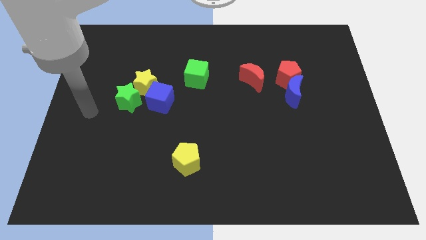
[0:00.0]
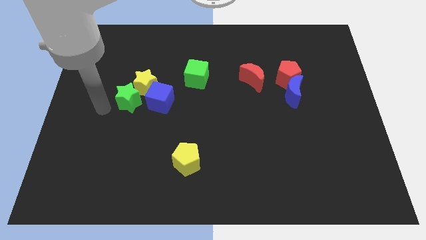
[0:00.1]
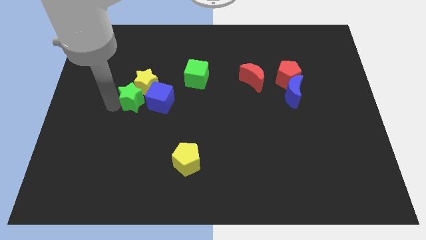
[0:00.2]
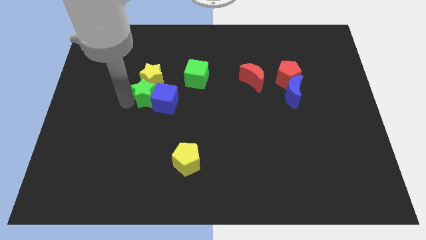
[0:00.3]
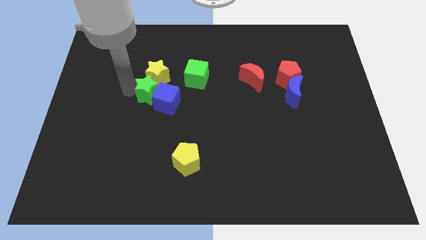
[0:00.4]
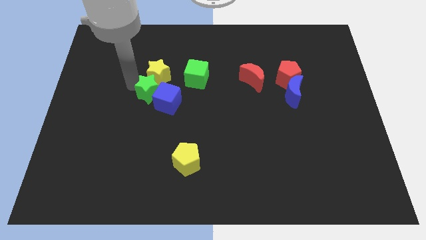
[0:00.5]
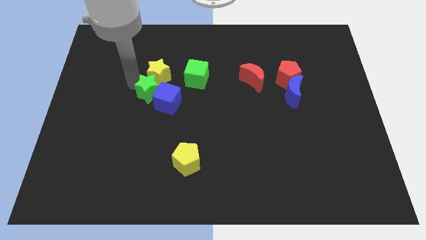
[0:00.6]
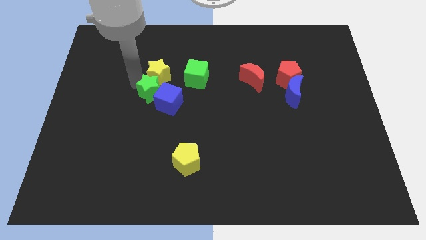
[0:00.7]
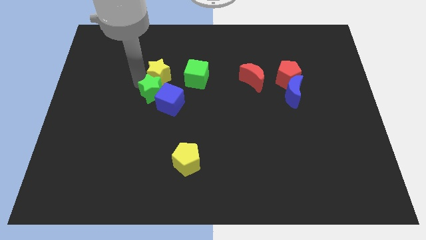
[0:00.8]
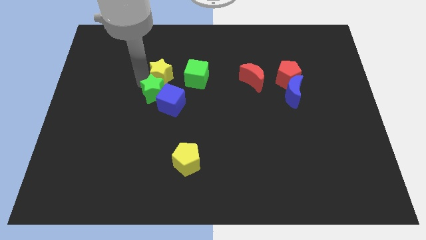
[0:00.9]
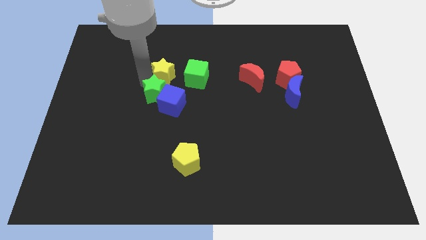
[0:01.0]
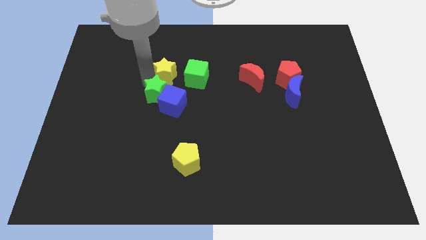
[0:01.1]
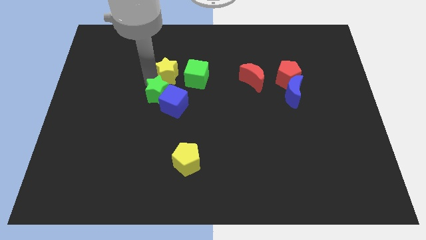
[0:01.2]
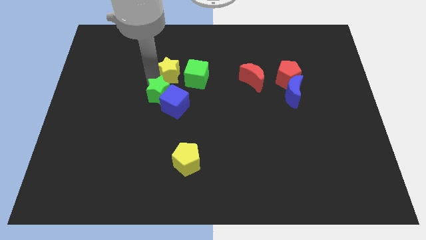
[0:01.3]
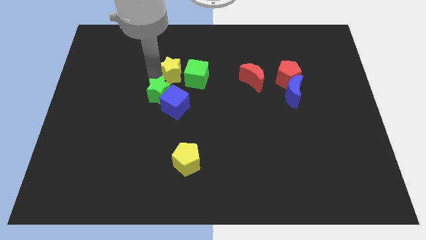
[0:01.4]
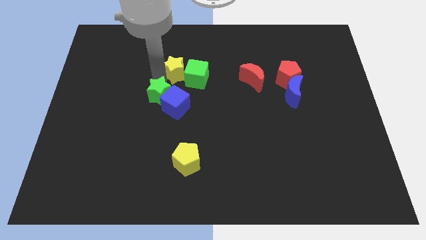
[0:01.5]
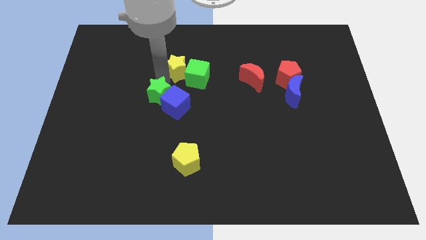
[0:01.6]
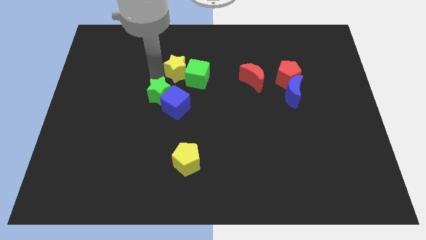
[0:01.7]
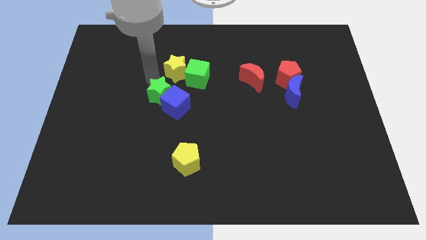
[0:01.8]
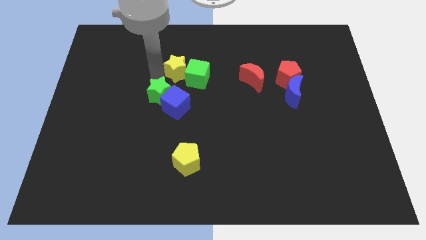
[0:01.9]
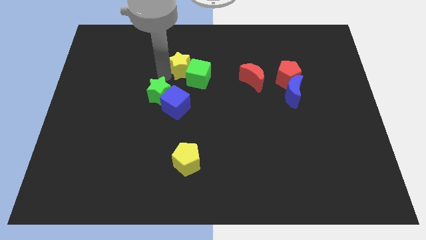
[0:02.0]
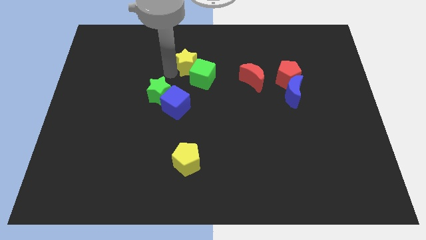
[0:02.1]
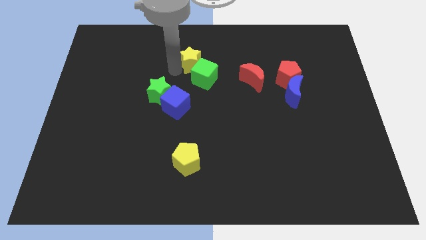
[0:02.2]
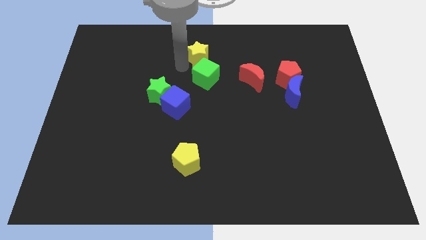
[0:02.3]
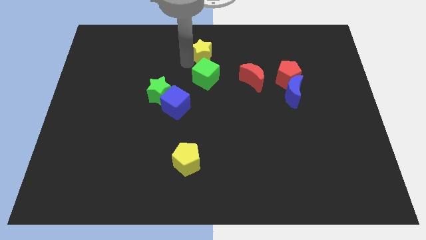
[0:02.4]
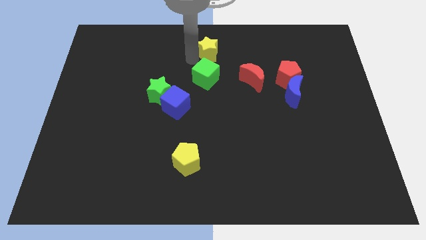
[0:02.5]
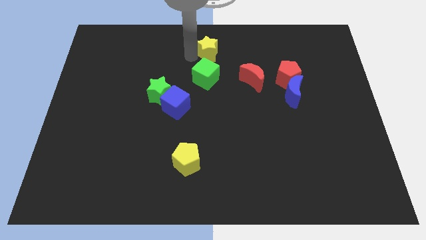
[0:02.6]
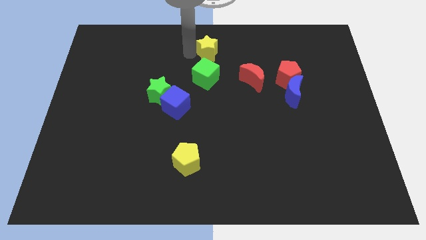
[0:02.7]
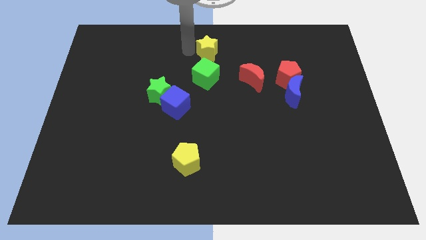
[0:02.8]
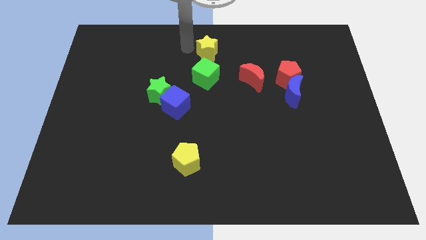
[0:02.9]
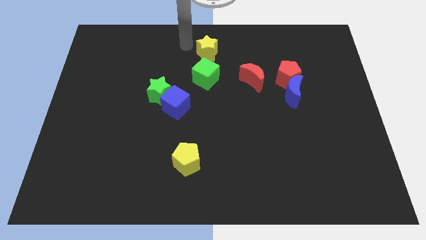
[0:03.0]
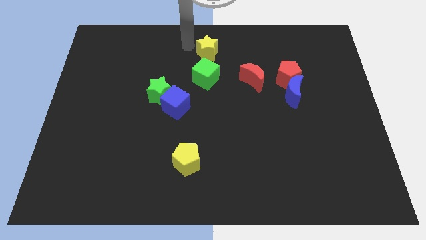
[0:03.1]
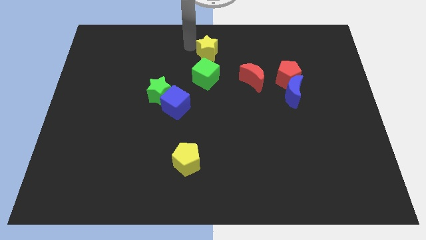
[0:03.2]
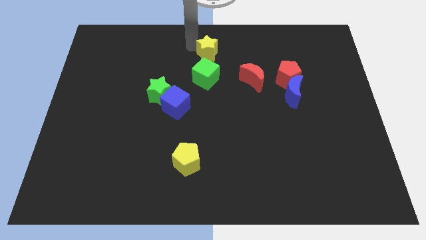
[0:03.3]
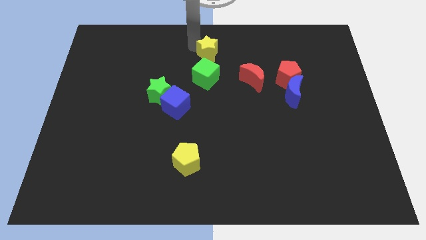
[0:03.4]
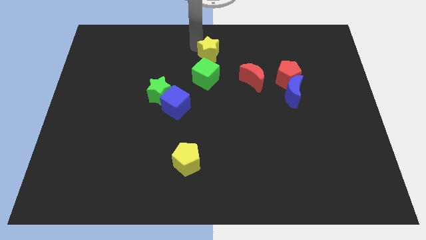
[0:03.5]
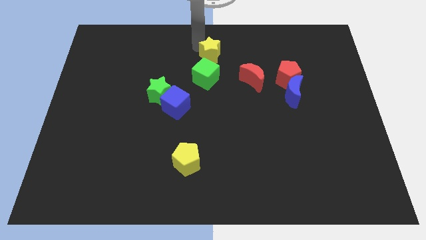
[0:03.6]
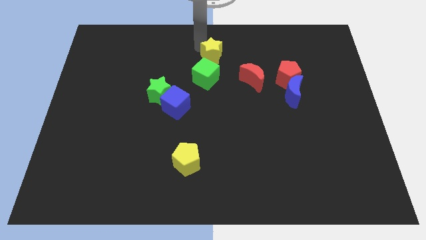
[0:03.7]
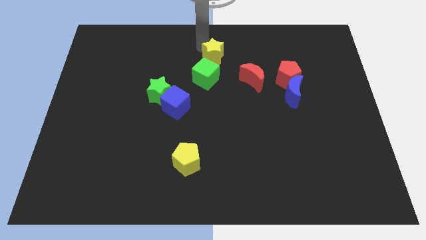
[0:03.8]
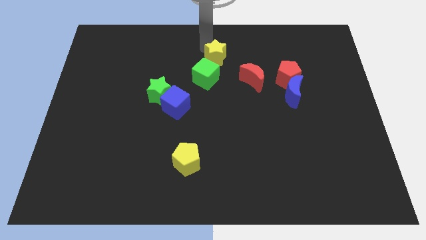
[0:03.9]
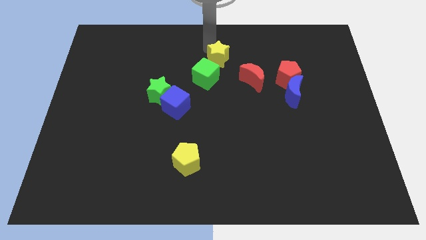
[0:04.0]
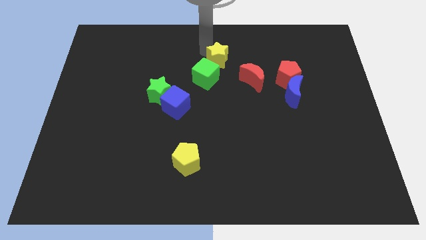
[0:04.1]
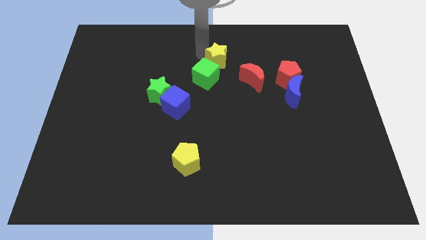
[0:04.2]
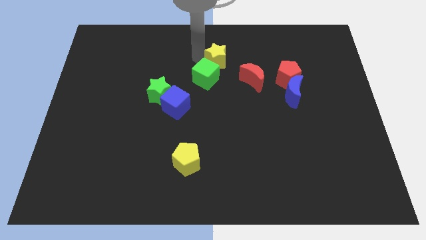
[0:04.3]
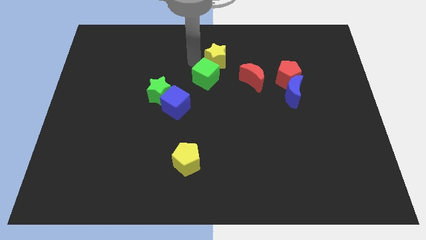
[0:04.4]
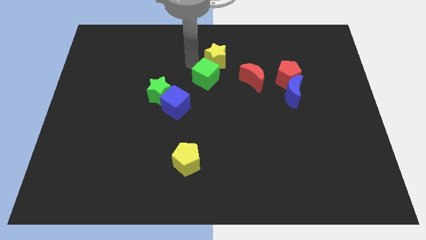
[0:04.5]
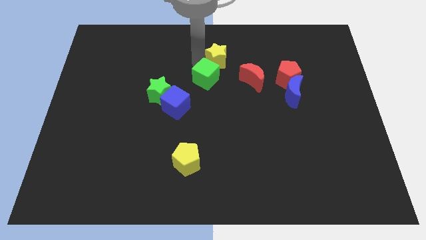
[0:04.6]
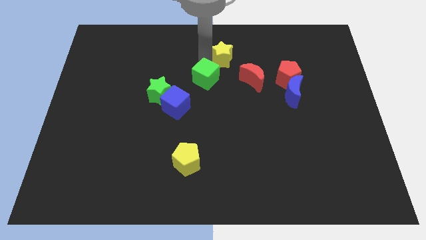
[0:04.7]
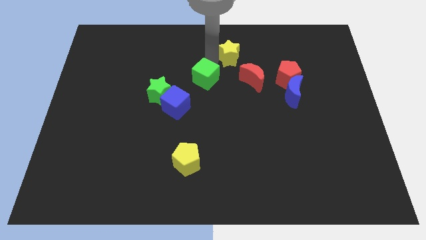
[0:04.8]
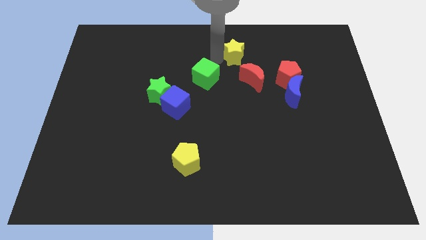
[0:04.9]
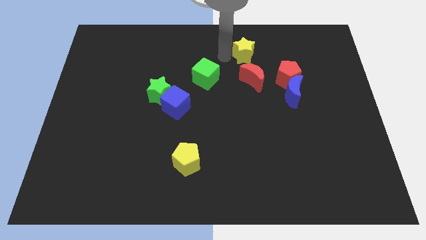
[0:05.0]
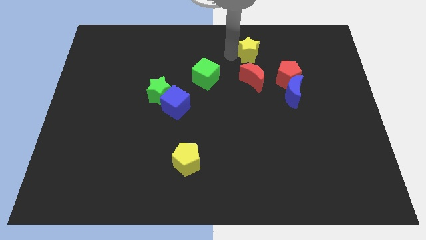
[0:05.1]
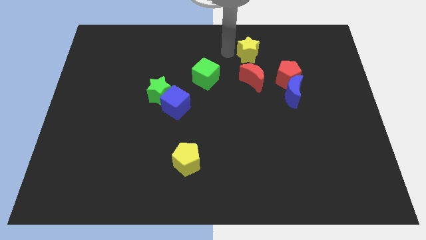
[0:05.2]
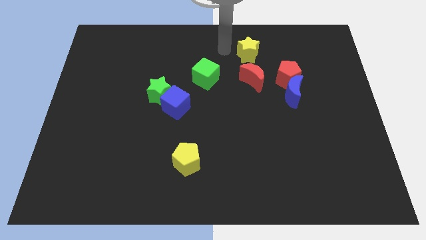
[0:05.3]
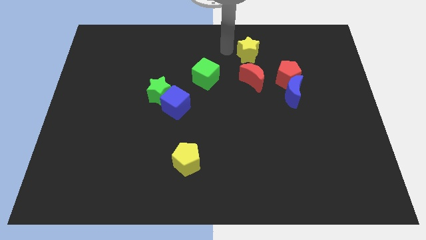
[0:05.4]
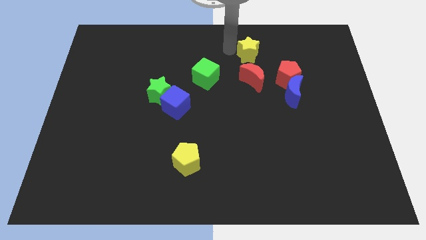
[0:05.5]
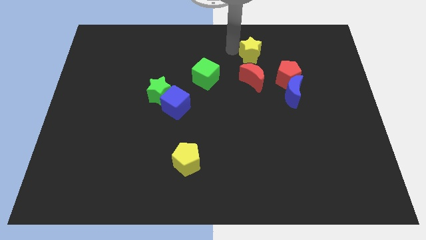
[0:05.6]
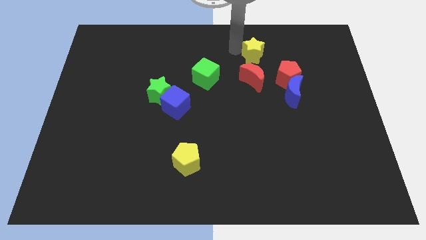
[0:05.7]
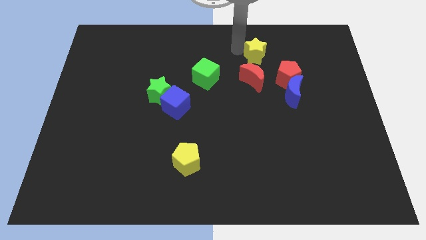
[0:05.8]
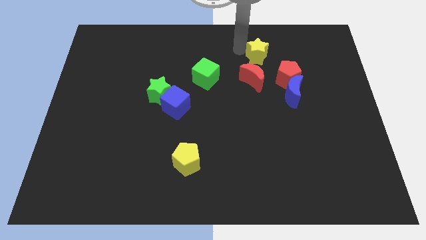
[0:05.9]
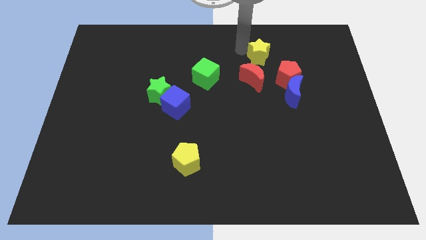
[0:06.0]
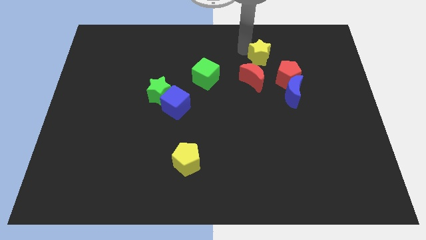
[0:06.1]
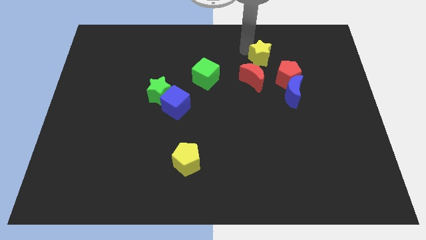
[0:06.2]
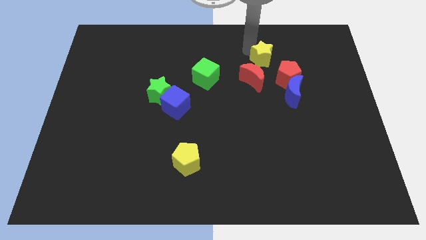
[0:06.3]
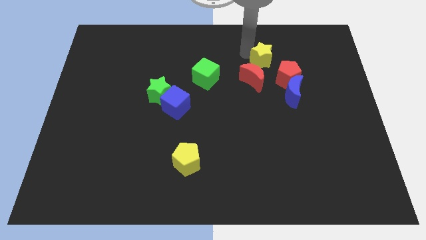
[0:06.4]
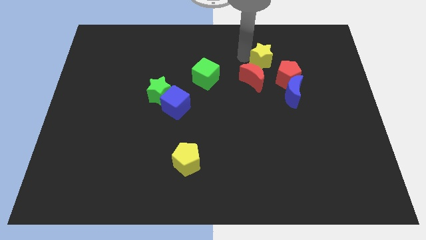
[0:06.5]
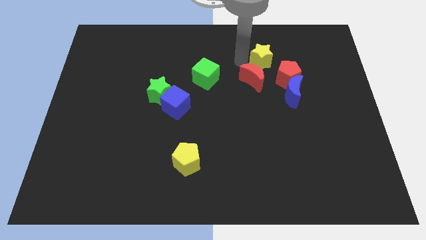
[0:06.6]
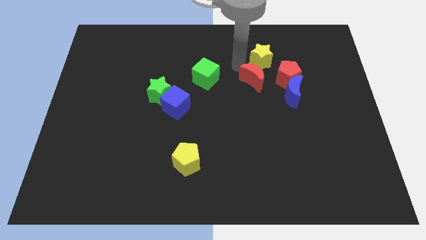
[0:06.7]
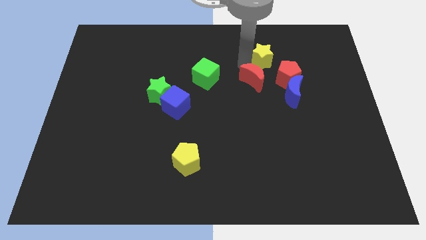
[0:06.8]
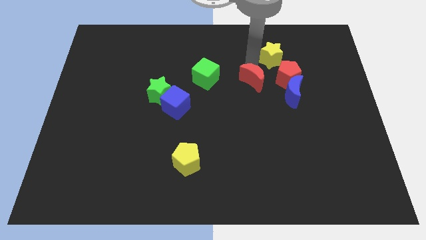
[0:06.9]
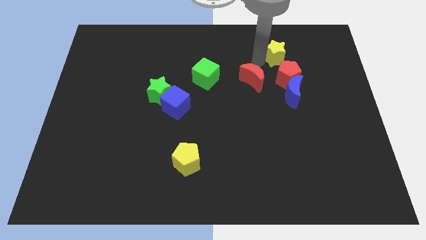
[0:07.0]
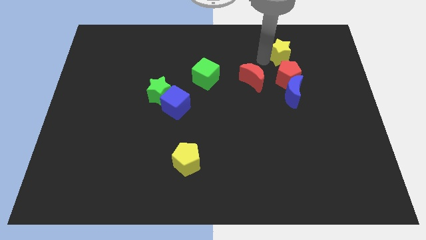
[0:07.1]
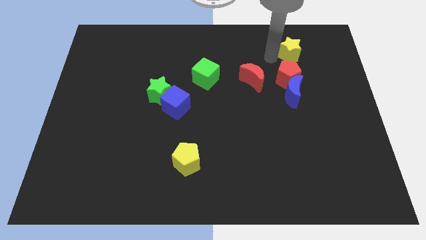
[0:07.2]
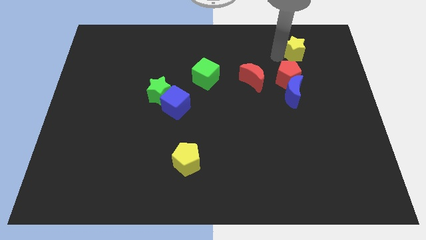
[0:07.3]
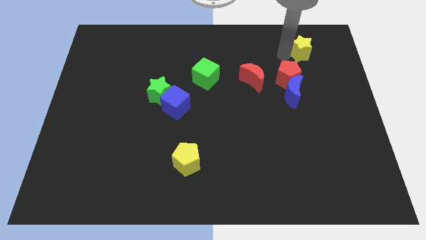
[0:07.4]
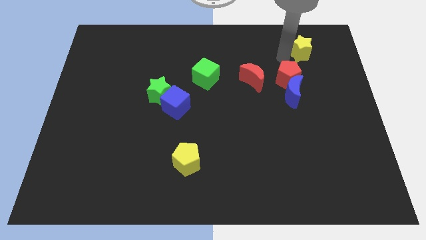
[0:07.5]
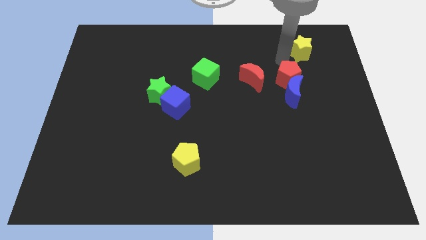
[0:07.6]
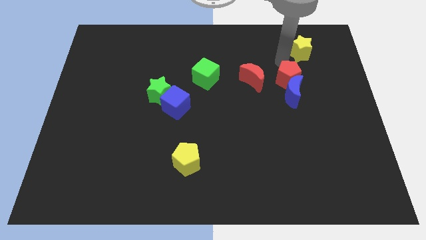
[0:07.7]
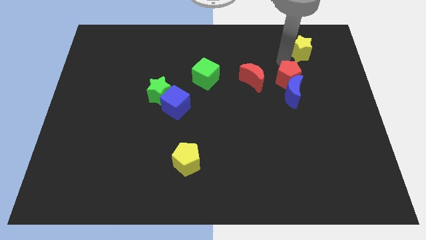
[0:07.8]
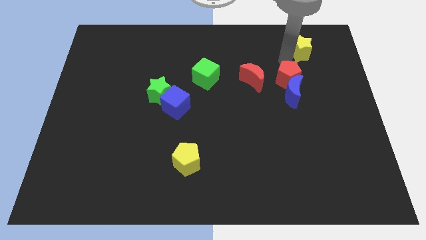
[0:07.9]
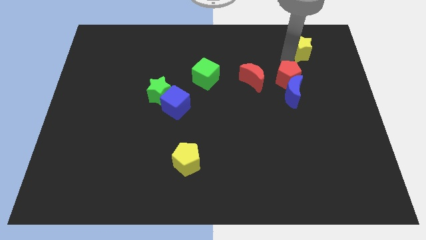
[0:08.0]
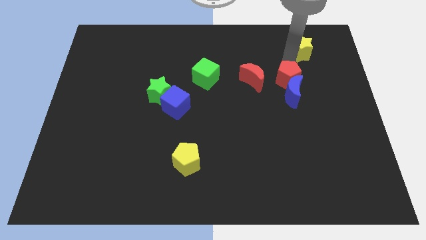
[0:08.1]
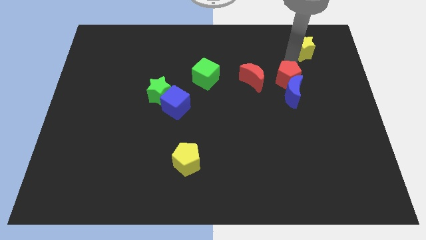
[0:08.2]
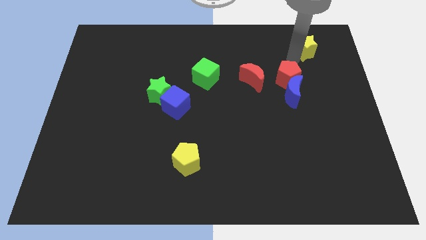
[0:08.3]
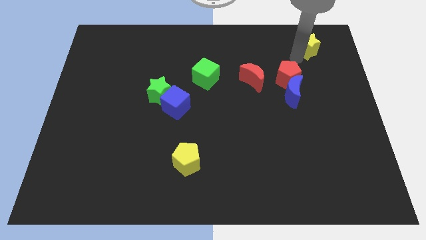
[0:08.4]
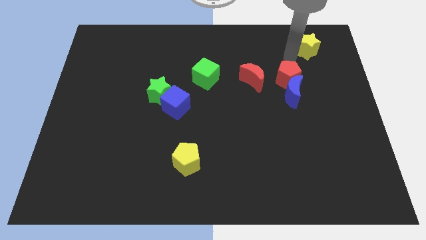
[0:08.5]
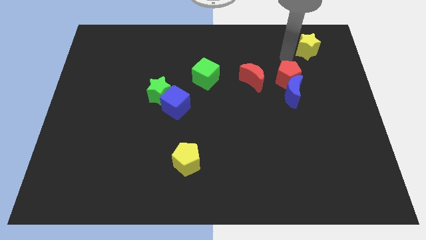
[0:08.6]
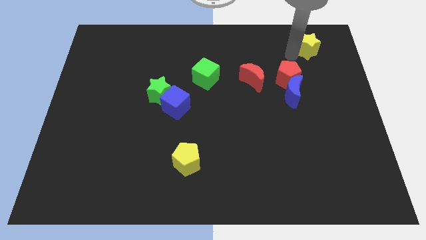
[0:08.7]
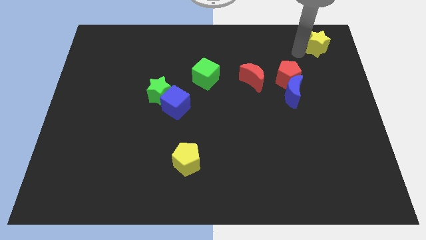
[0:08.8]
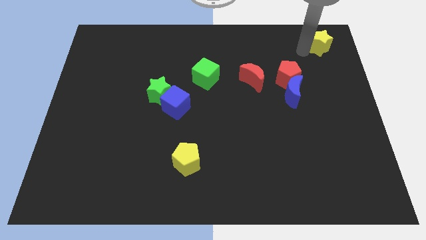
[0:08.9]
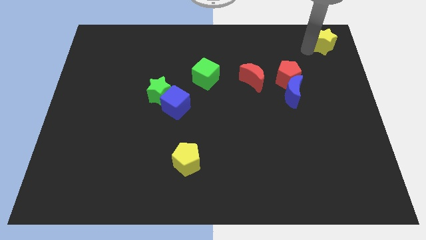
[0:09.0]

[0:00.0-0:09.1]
slide the yellow star to the top right of the board
